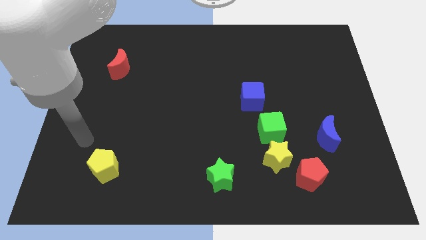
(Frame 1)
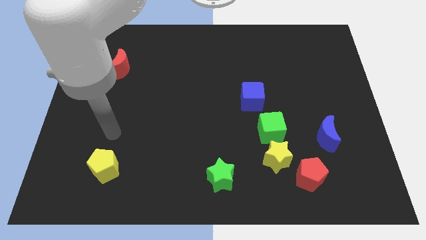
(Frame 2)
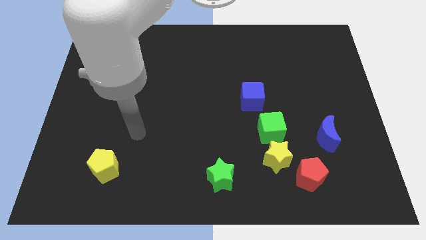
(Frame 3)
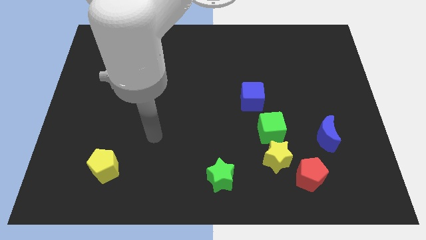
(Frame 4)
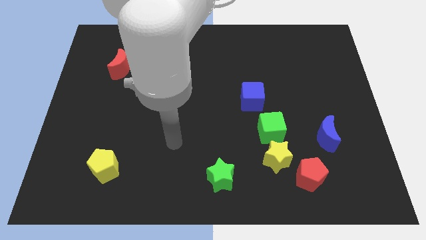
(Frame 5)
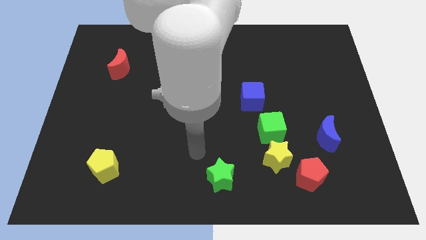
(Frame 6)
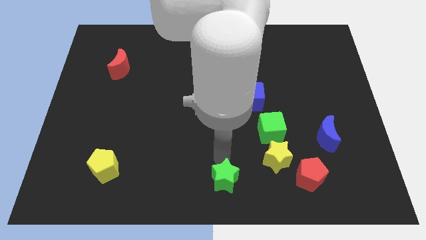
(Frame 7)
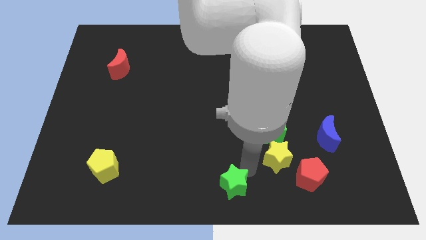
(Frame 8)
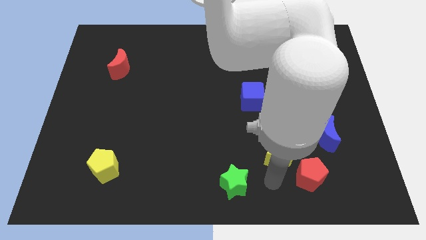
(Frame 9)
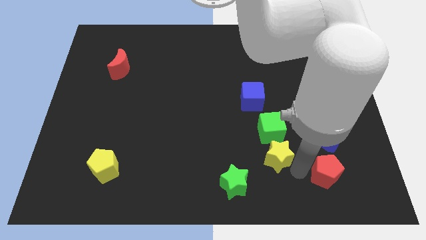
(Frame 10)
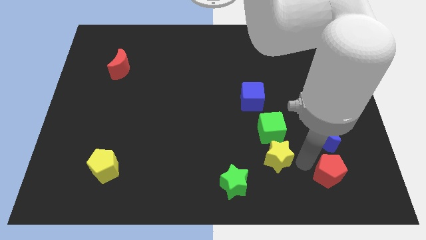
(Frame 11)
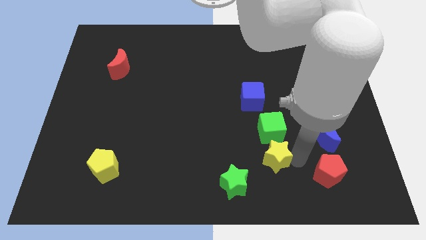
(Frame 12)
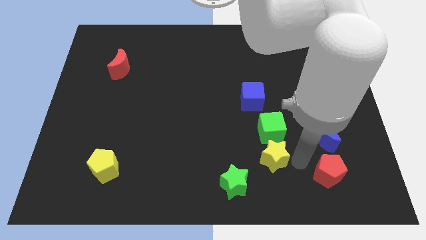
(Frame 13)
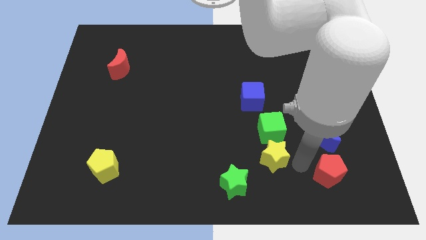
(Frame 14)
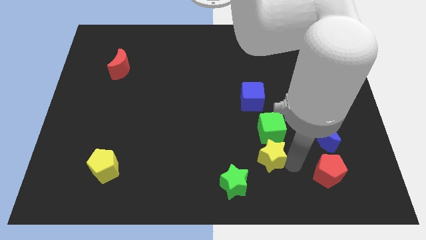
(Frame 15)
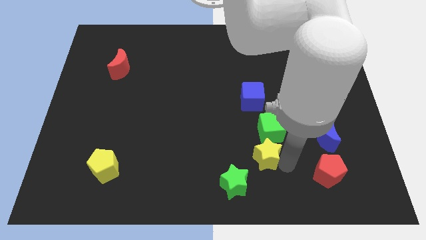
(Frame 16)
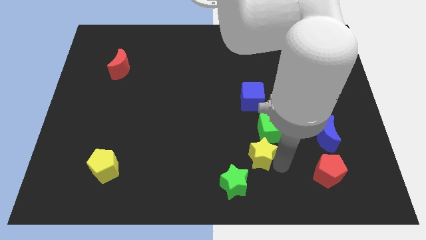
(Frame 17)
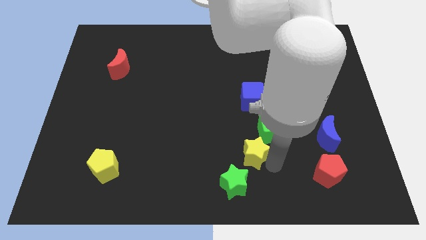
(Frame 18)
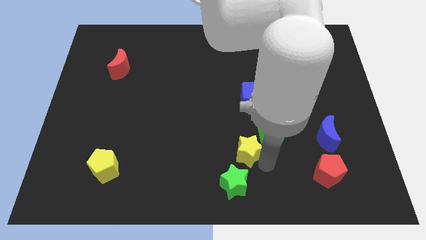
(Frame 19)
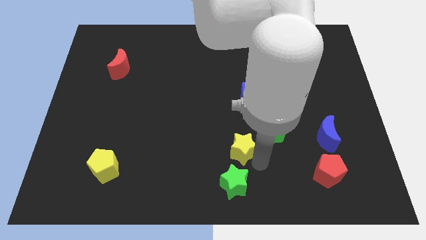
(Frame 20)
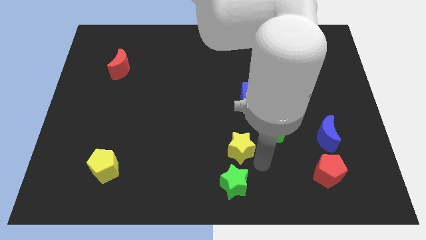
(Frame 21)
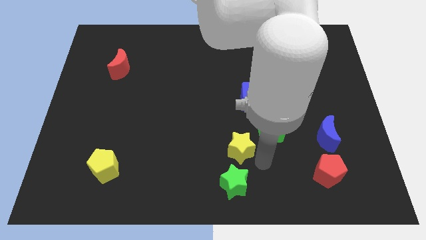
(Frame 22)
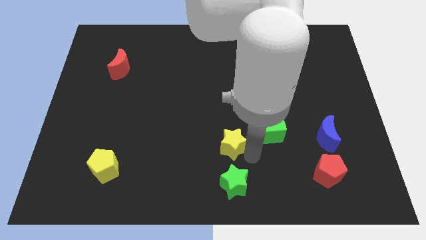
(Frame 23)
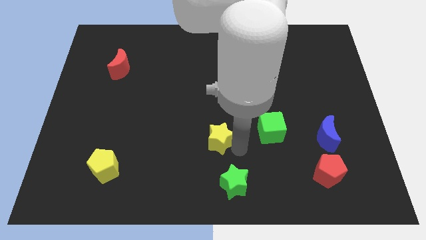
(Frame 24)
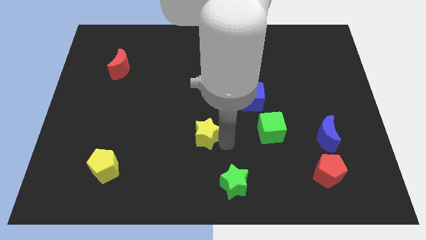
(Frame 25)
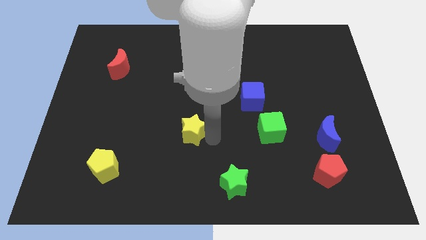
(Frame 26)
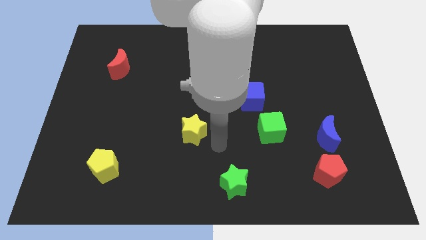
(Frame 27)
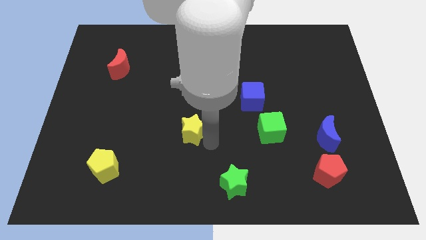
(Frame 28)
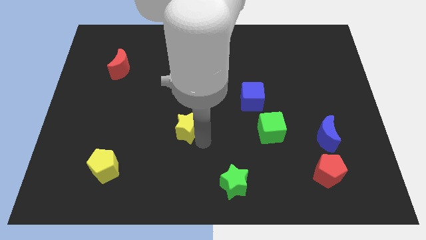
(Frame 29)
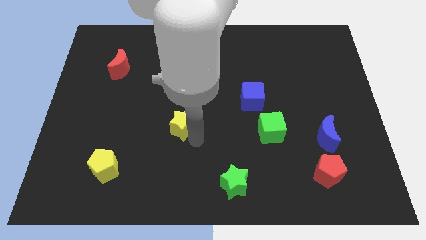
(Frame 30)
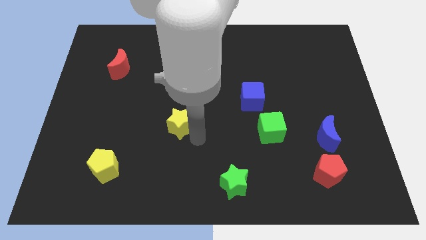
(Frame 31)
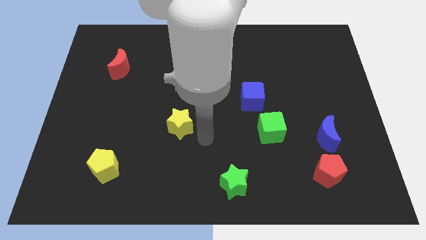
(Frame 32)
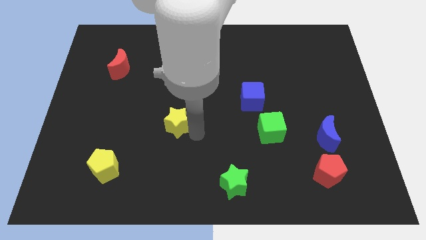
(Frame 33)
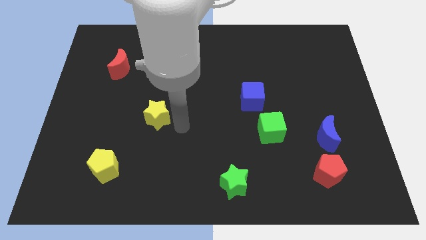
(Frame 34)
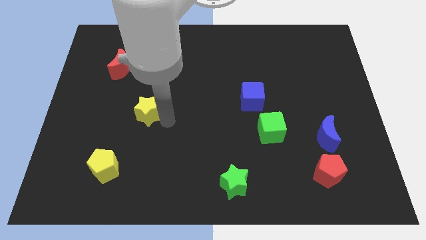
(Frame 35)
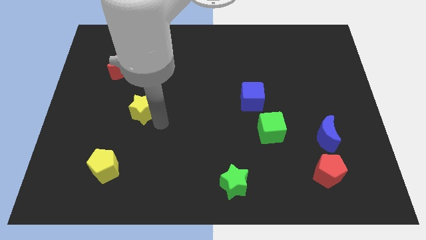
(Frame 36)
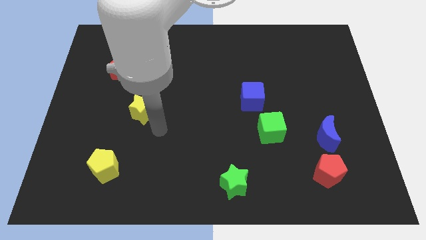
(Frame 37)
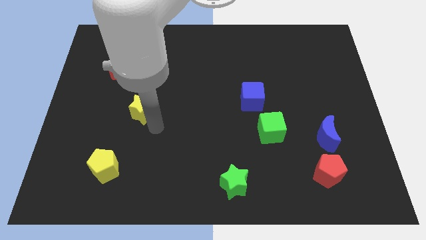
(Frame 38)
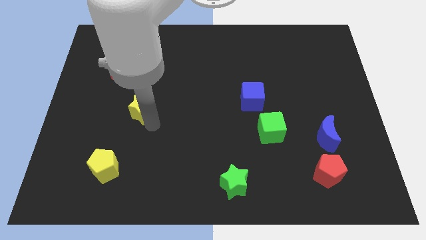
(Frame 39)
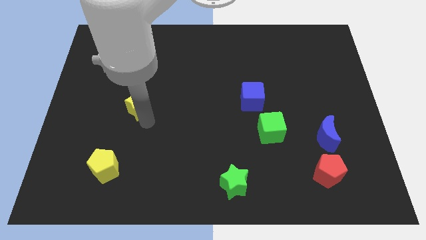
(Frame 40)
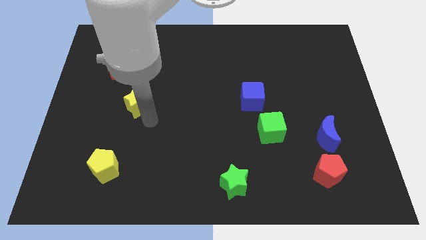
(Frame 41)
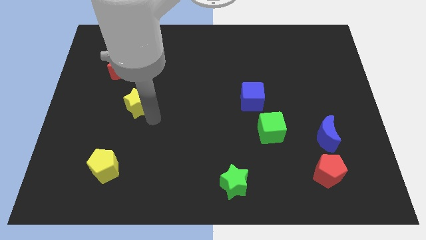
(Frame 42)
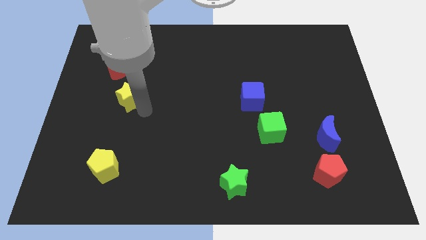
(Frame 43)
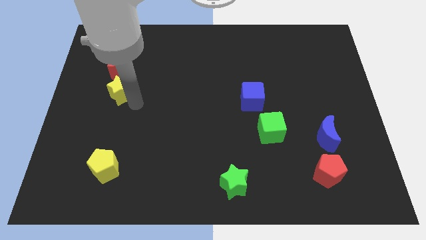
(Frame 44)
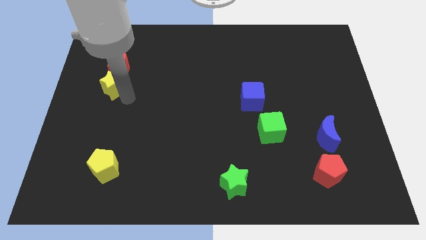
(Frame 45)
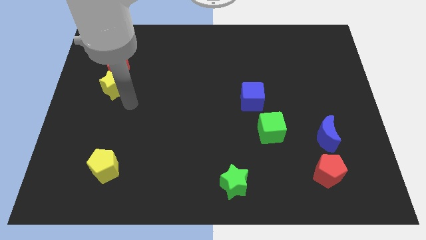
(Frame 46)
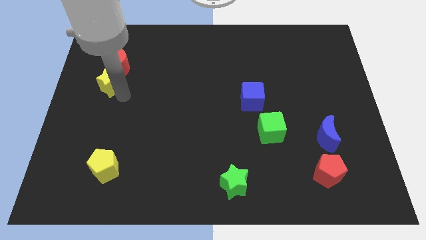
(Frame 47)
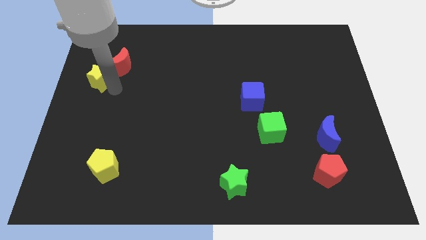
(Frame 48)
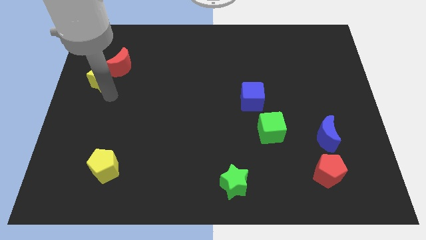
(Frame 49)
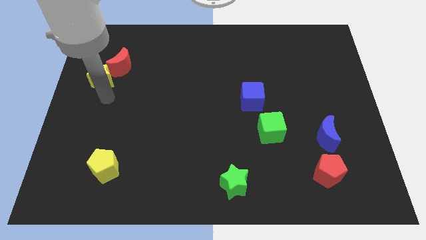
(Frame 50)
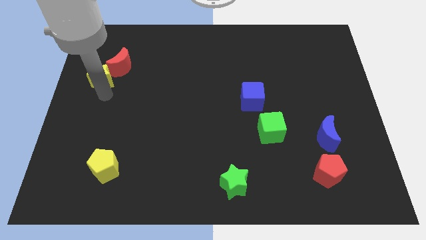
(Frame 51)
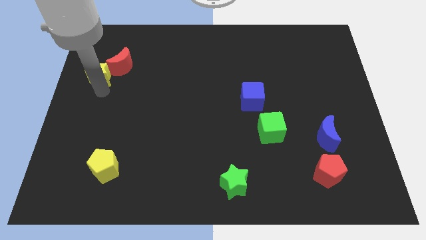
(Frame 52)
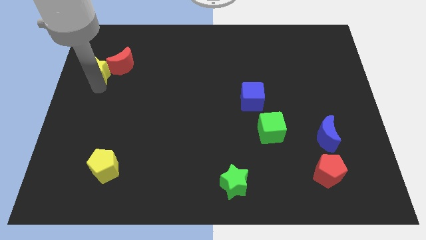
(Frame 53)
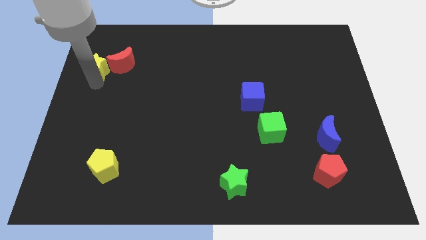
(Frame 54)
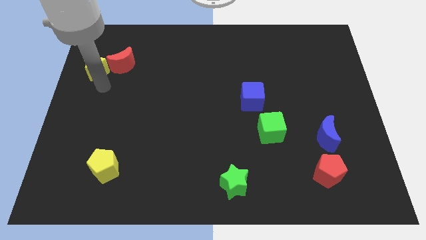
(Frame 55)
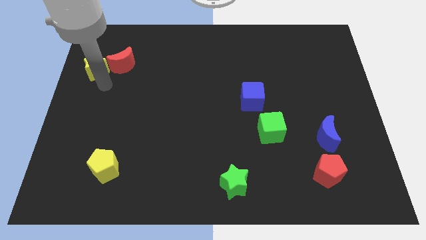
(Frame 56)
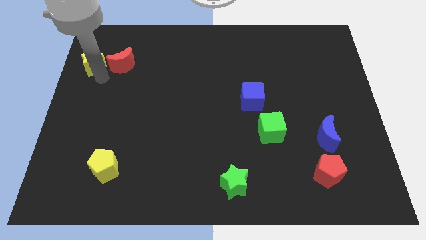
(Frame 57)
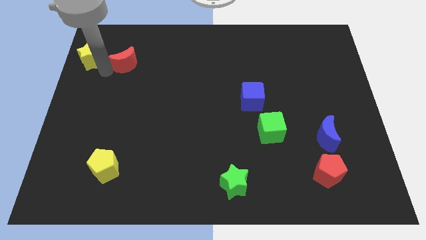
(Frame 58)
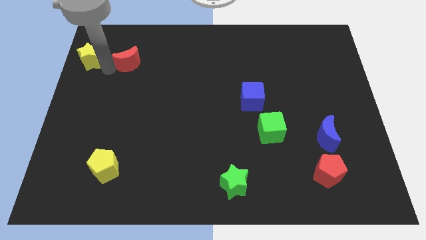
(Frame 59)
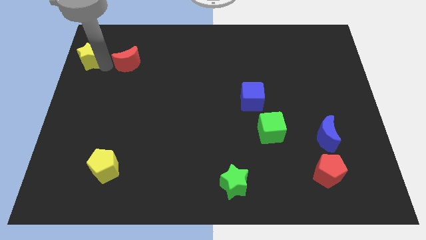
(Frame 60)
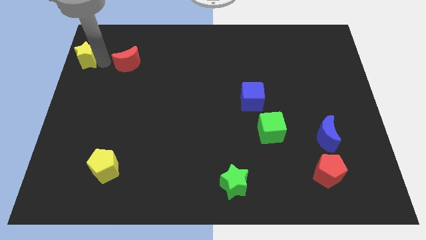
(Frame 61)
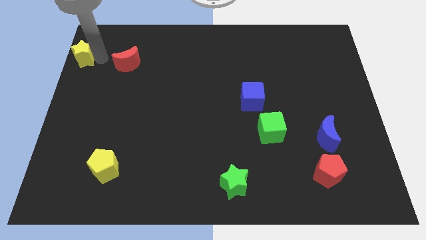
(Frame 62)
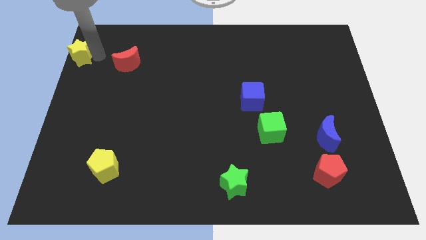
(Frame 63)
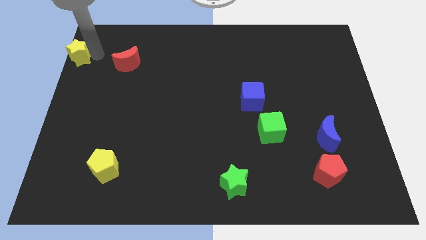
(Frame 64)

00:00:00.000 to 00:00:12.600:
move the yellow star to the upper left corner
